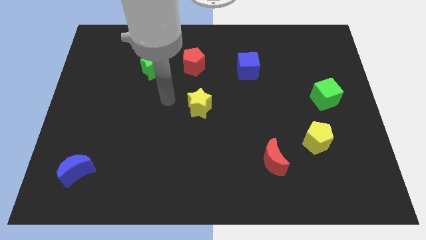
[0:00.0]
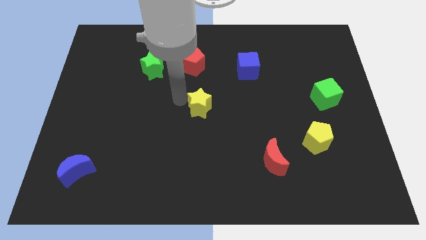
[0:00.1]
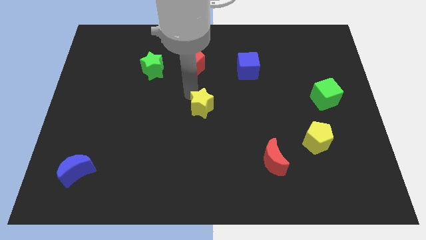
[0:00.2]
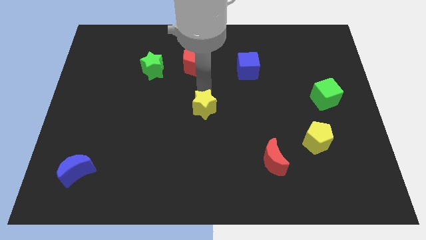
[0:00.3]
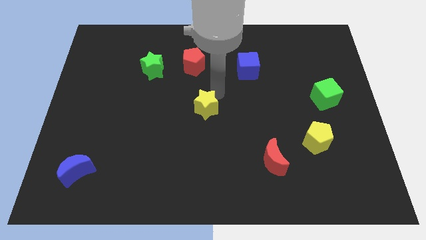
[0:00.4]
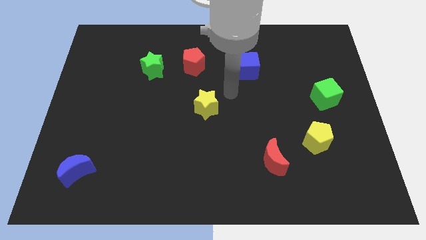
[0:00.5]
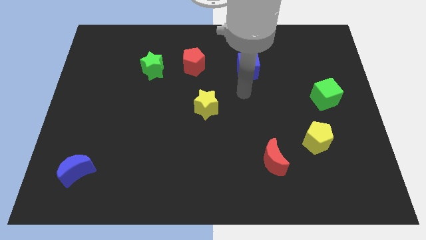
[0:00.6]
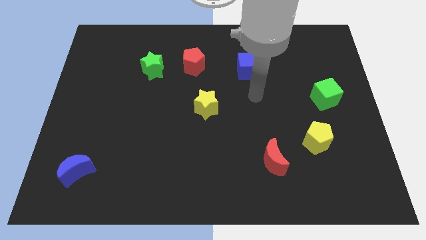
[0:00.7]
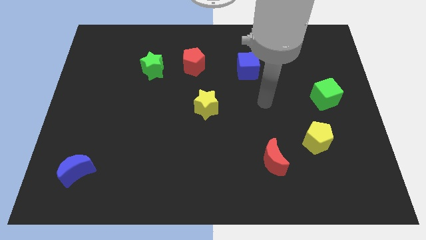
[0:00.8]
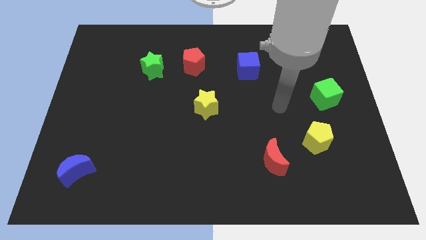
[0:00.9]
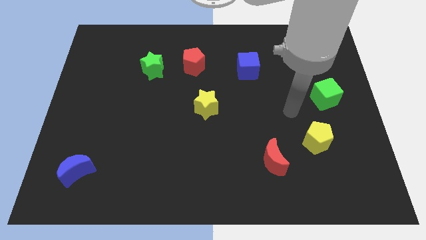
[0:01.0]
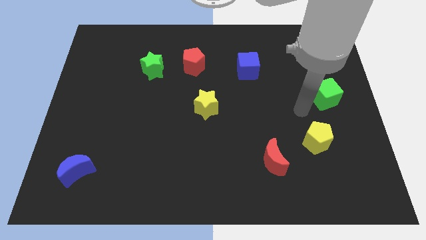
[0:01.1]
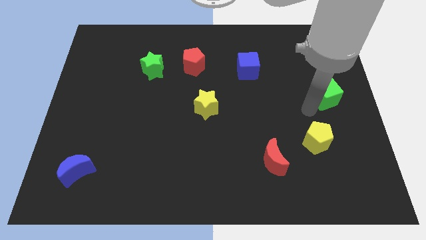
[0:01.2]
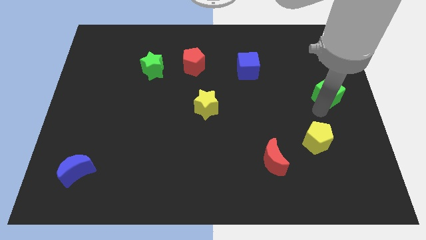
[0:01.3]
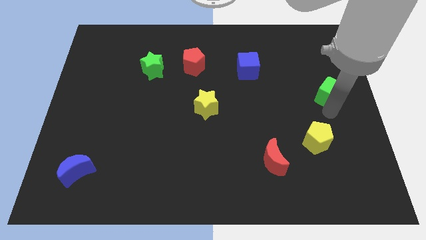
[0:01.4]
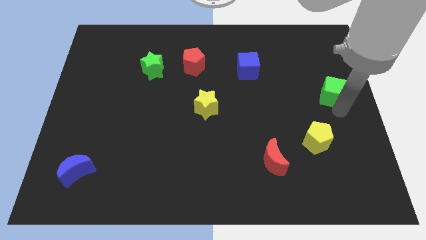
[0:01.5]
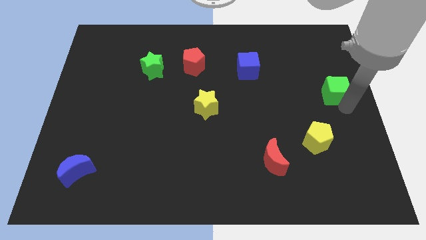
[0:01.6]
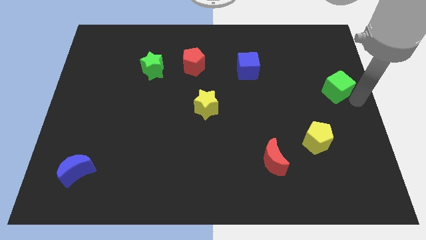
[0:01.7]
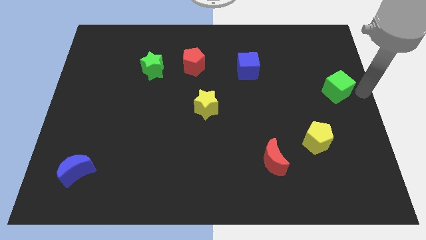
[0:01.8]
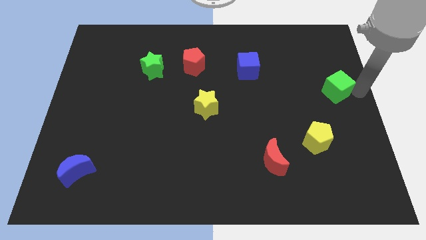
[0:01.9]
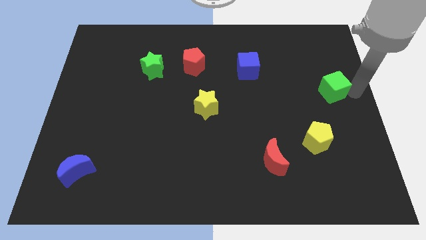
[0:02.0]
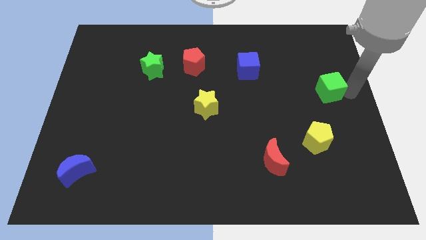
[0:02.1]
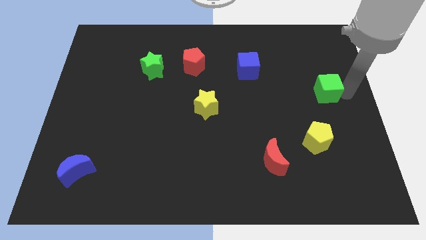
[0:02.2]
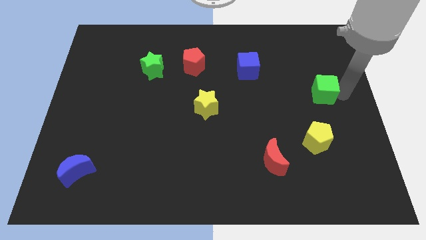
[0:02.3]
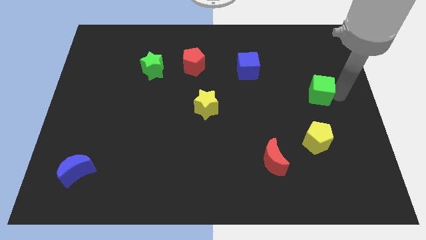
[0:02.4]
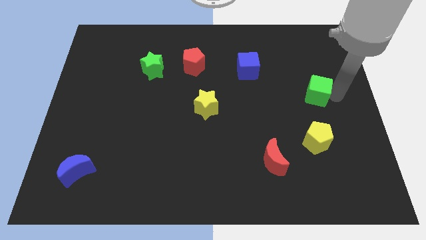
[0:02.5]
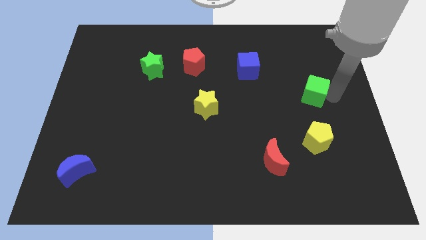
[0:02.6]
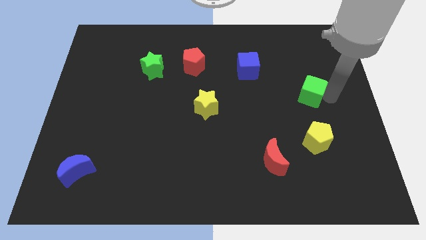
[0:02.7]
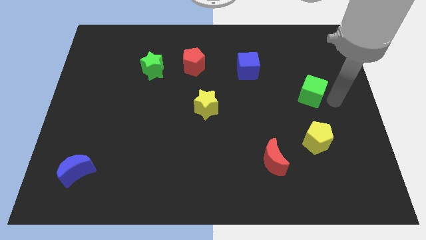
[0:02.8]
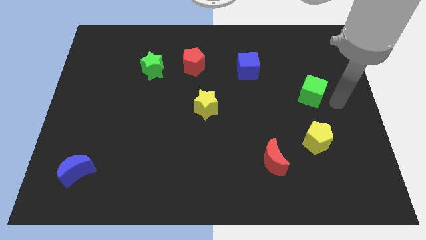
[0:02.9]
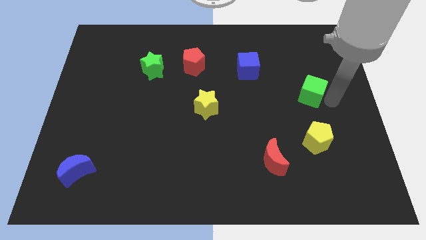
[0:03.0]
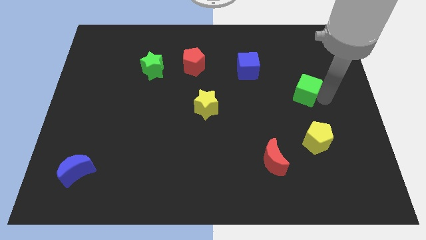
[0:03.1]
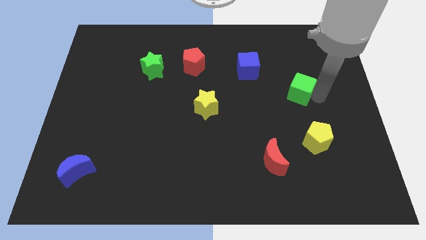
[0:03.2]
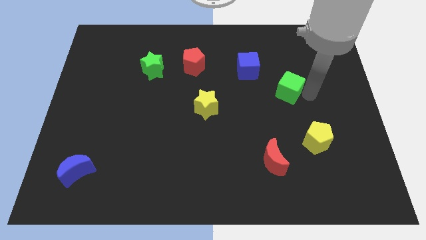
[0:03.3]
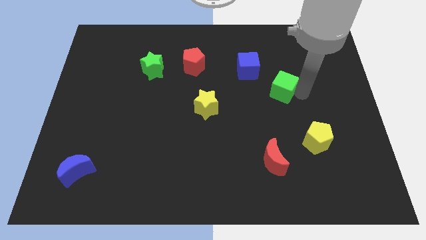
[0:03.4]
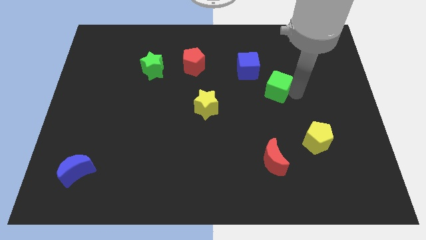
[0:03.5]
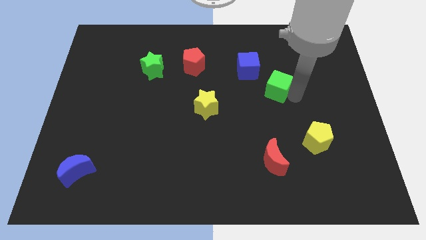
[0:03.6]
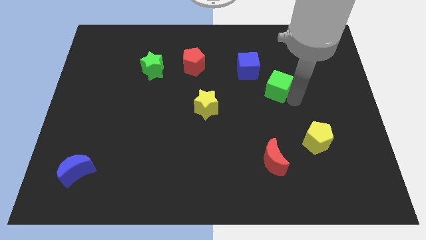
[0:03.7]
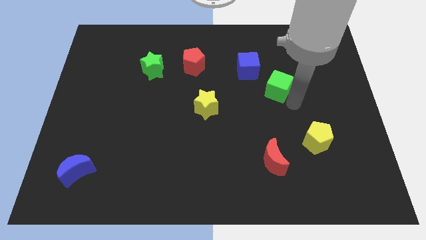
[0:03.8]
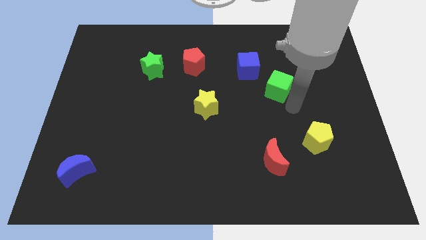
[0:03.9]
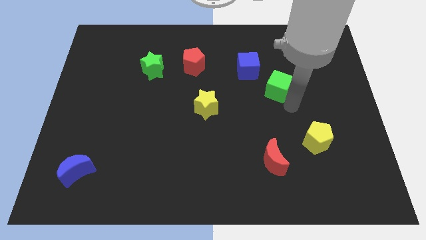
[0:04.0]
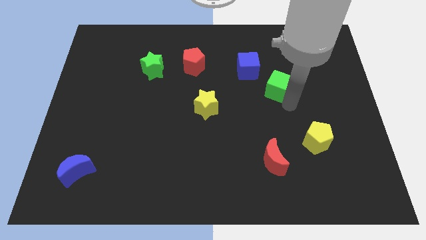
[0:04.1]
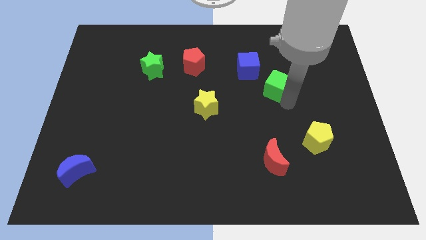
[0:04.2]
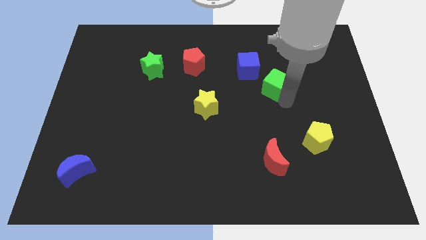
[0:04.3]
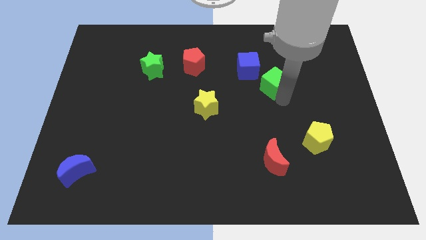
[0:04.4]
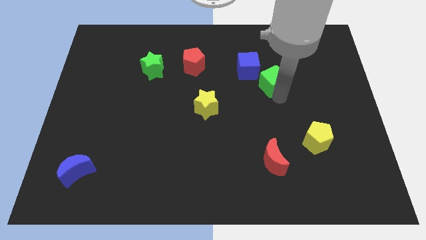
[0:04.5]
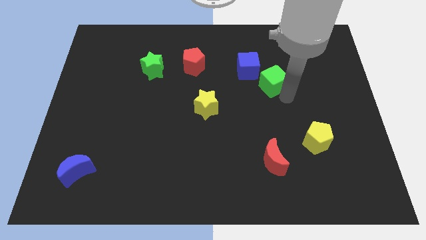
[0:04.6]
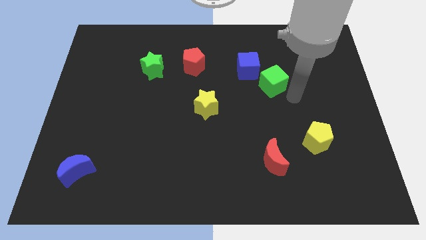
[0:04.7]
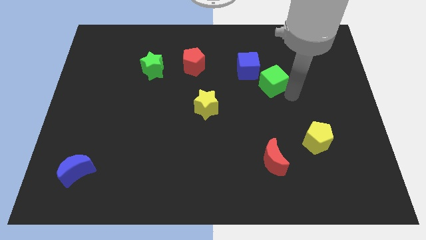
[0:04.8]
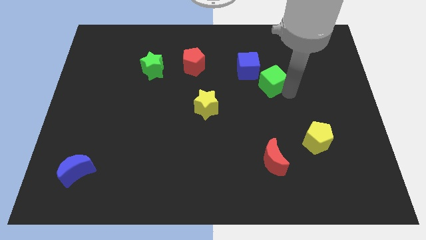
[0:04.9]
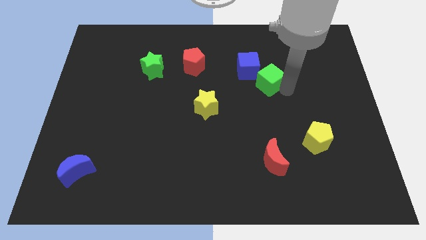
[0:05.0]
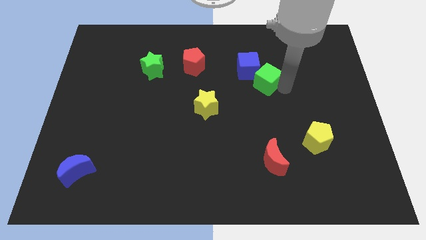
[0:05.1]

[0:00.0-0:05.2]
put the green cube next to the blue cube

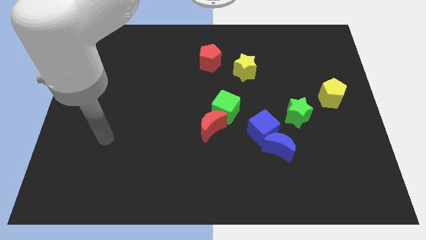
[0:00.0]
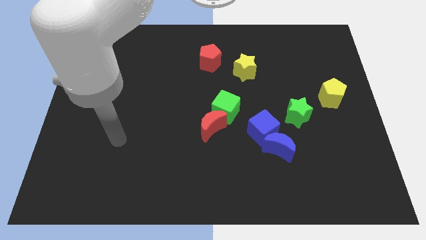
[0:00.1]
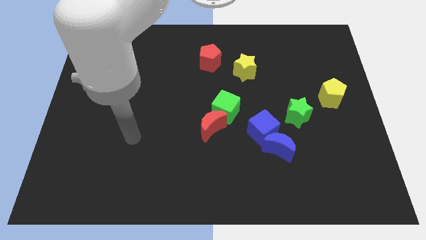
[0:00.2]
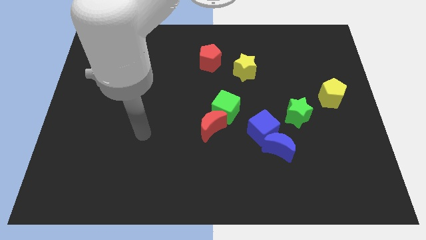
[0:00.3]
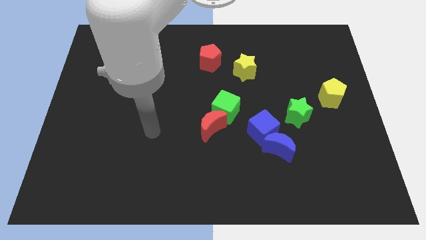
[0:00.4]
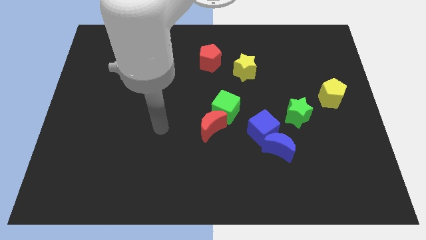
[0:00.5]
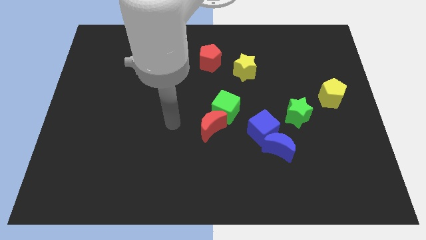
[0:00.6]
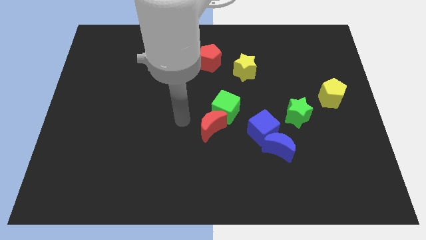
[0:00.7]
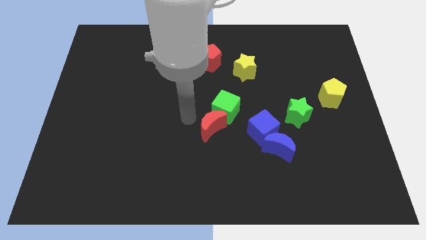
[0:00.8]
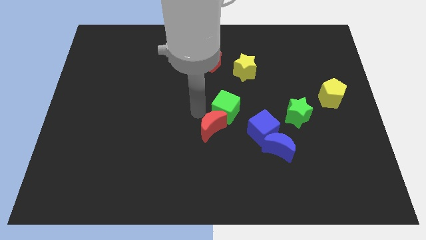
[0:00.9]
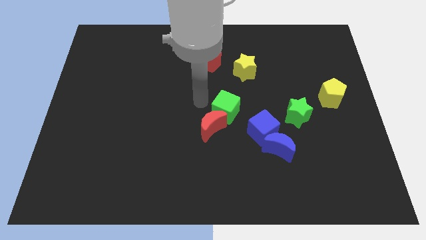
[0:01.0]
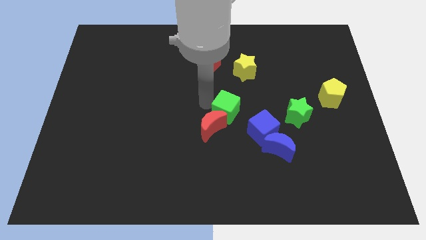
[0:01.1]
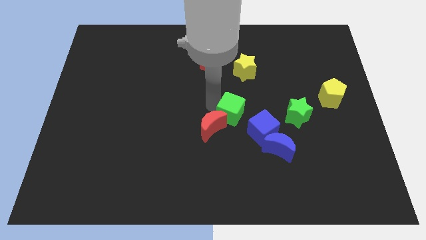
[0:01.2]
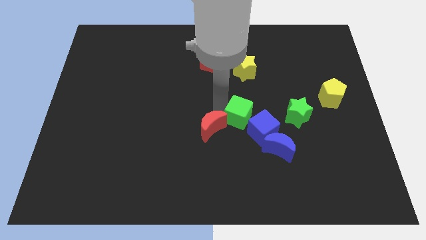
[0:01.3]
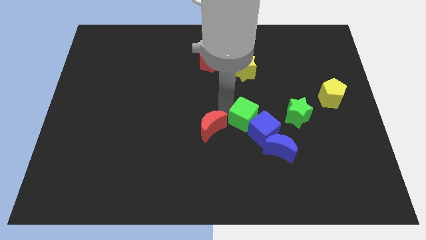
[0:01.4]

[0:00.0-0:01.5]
move the green cube next to the blue cube
